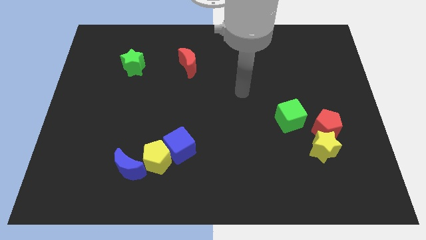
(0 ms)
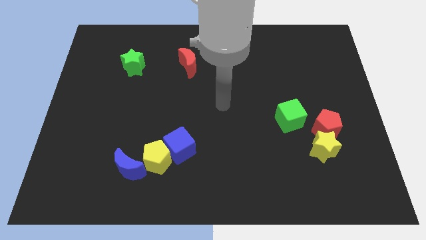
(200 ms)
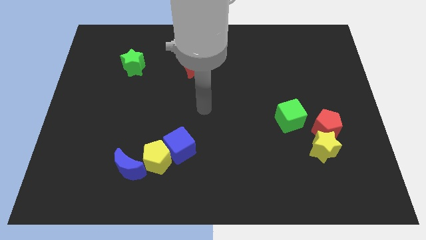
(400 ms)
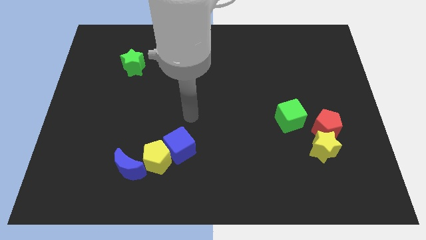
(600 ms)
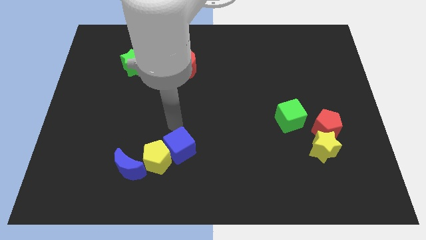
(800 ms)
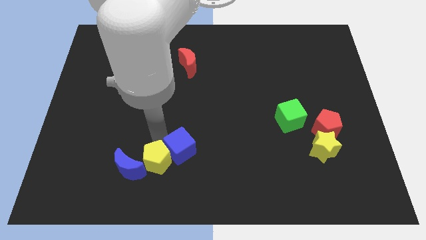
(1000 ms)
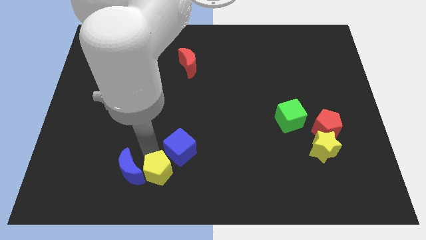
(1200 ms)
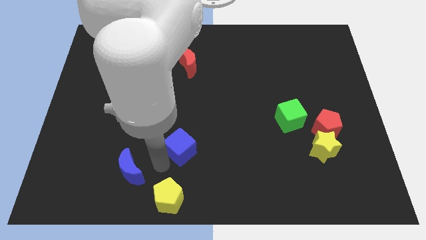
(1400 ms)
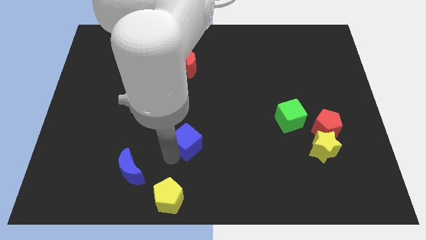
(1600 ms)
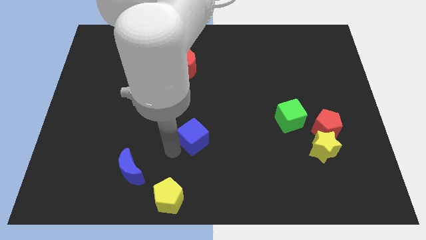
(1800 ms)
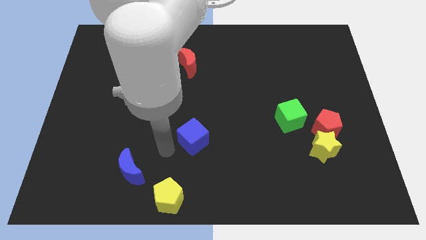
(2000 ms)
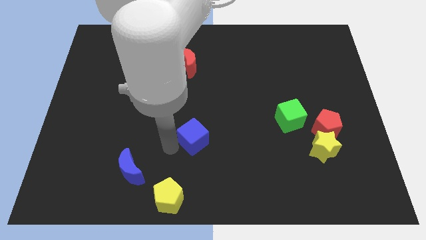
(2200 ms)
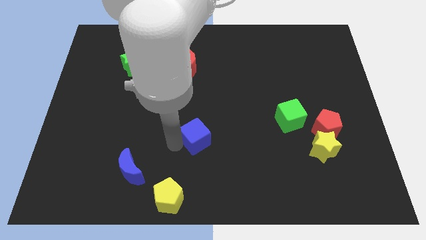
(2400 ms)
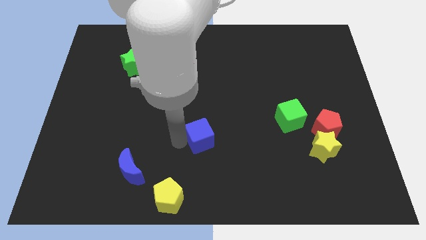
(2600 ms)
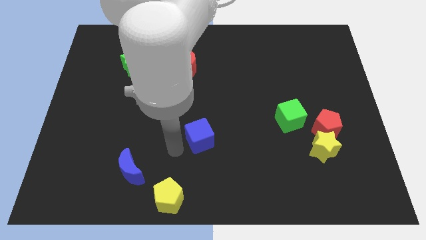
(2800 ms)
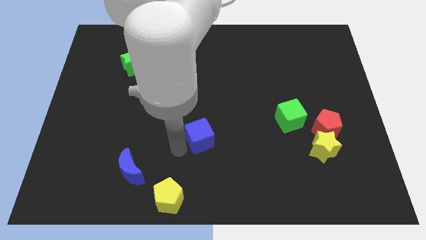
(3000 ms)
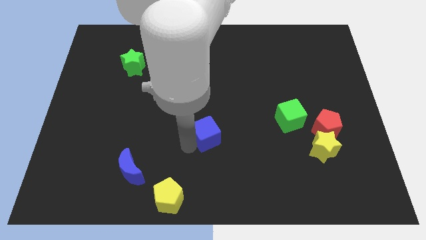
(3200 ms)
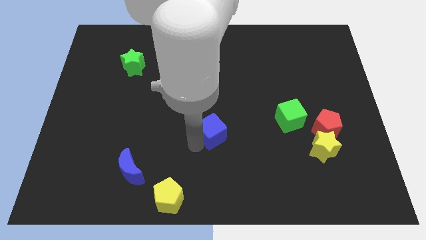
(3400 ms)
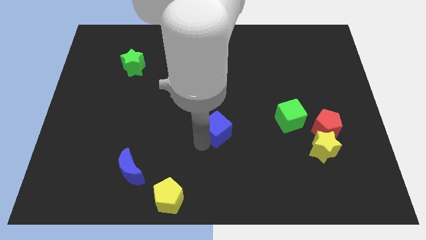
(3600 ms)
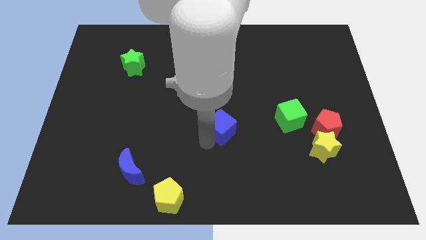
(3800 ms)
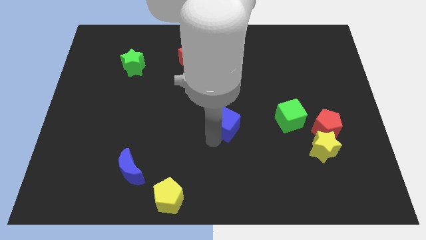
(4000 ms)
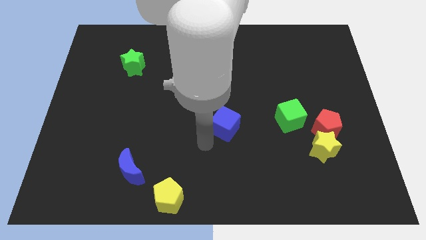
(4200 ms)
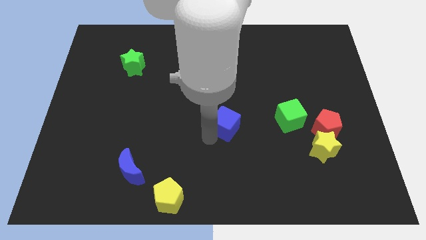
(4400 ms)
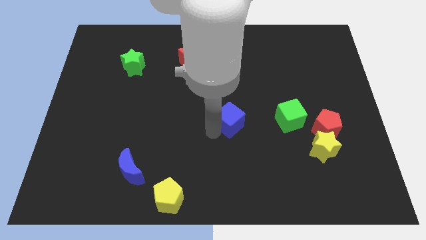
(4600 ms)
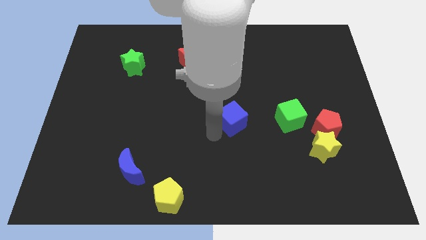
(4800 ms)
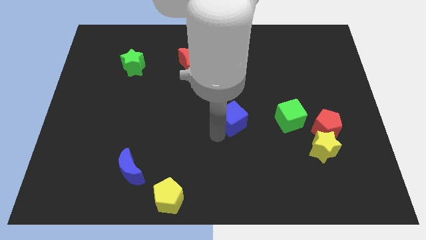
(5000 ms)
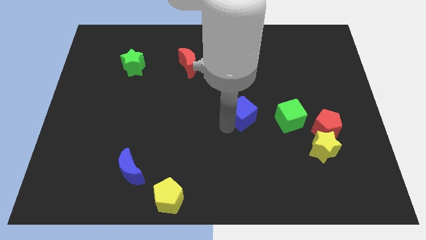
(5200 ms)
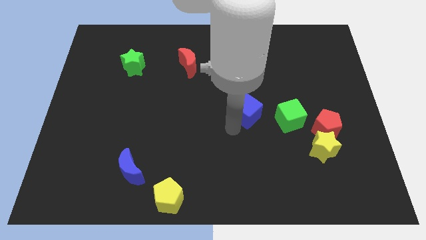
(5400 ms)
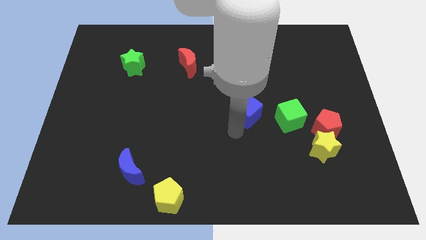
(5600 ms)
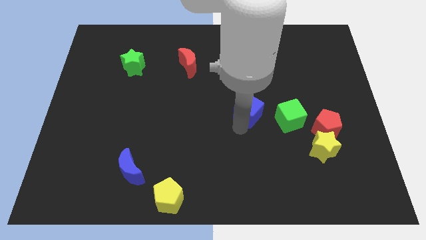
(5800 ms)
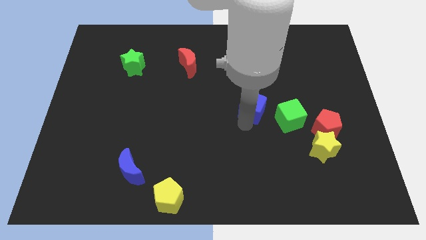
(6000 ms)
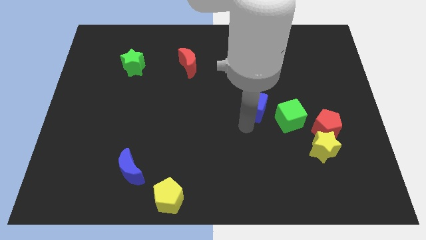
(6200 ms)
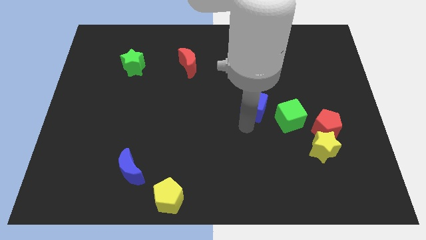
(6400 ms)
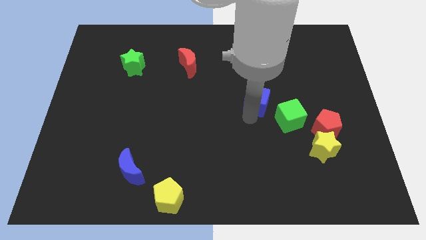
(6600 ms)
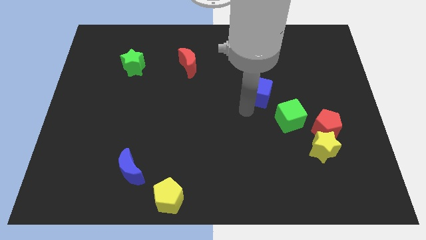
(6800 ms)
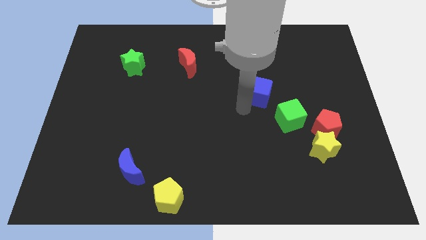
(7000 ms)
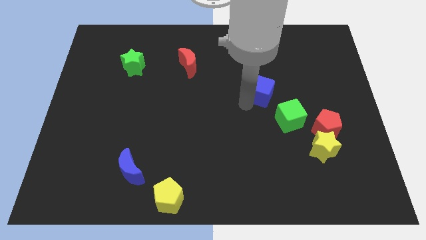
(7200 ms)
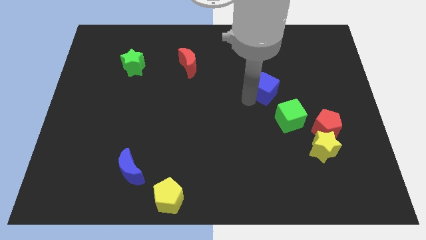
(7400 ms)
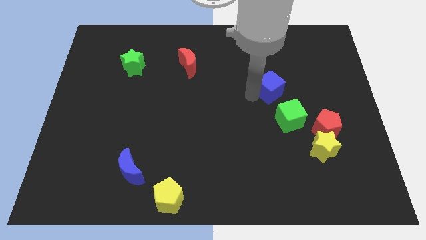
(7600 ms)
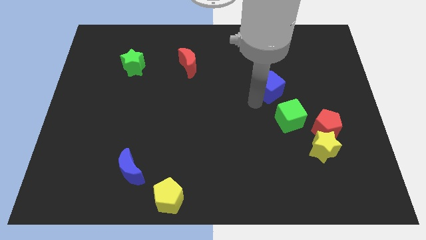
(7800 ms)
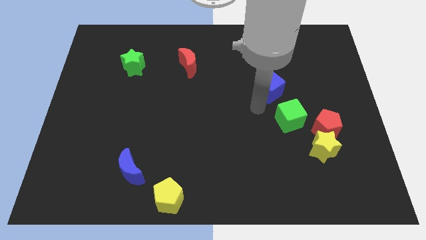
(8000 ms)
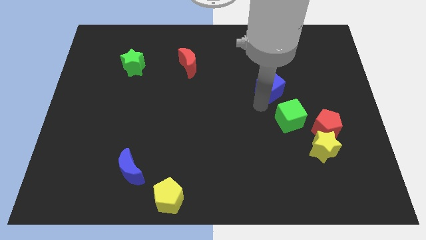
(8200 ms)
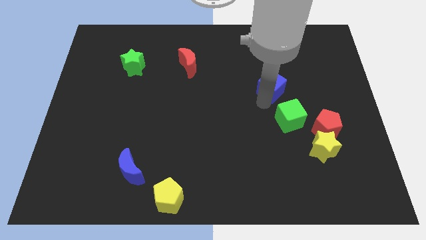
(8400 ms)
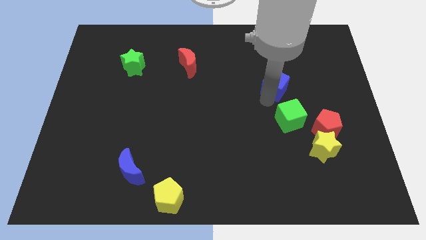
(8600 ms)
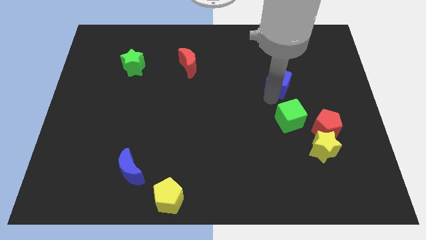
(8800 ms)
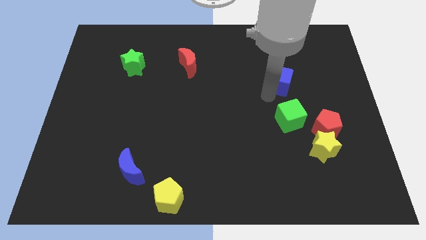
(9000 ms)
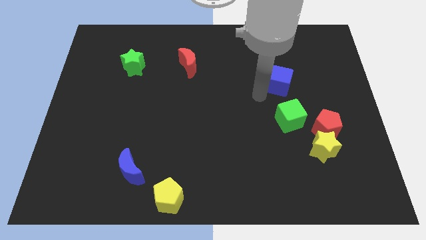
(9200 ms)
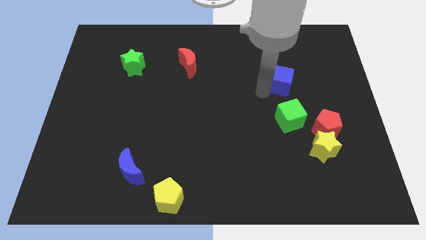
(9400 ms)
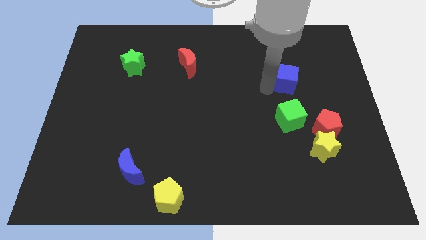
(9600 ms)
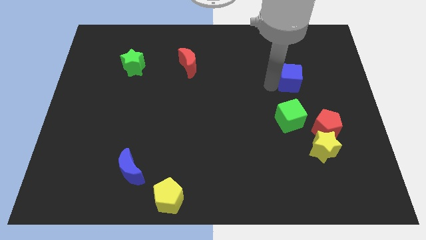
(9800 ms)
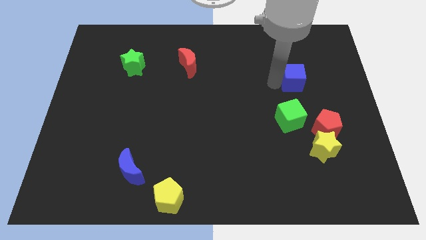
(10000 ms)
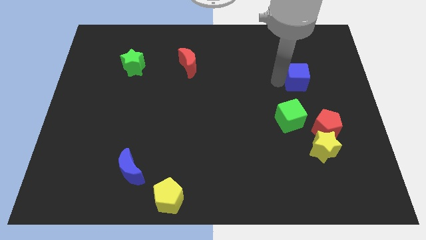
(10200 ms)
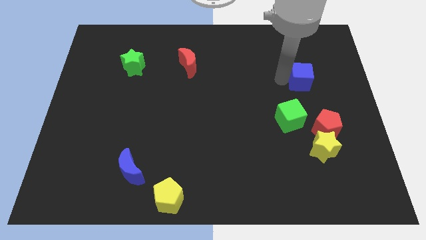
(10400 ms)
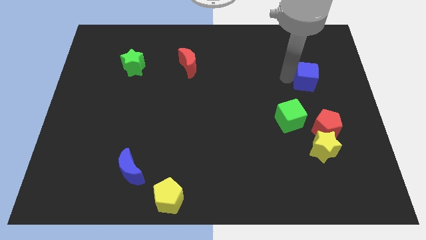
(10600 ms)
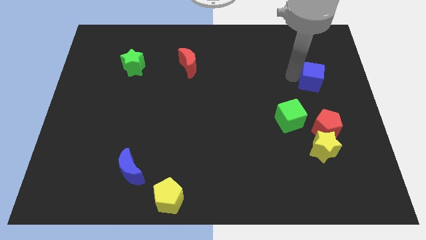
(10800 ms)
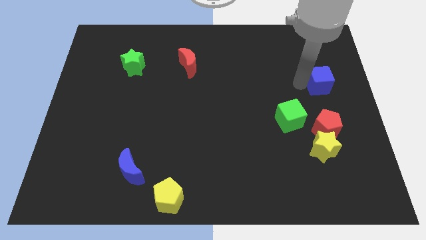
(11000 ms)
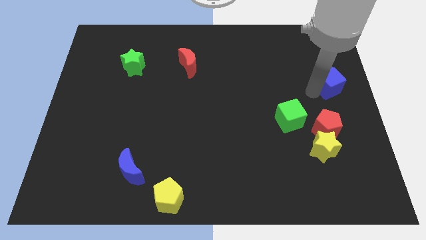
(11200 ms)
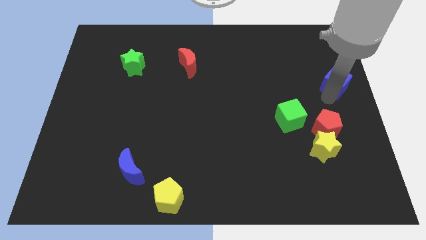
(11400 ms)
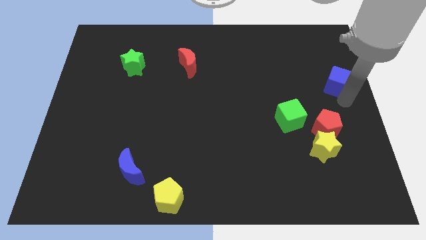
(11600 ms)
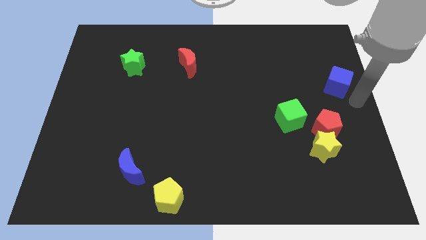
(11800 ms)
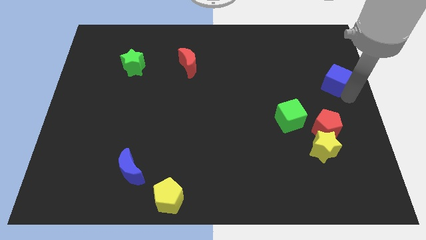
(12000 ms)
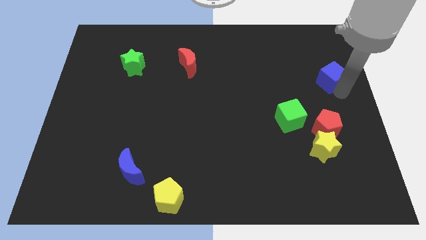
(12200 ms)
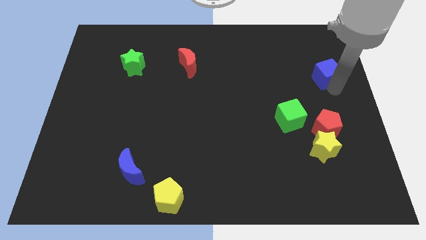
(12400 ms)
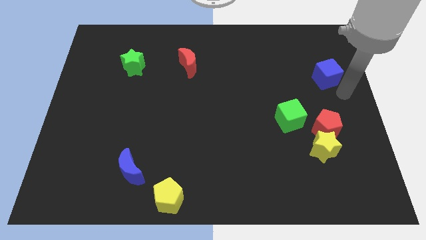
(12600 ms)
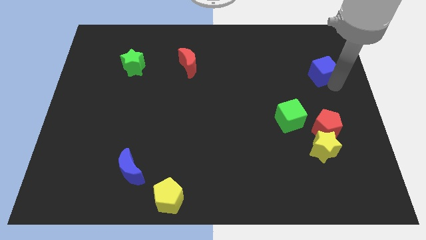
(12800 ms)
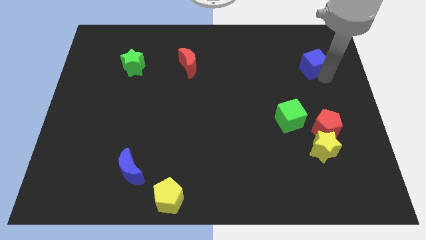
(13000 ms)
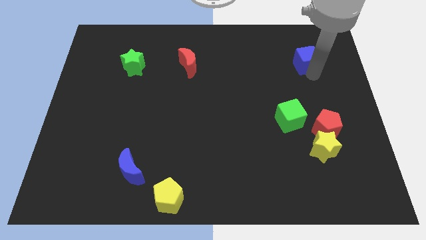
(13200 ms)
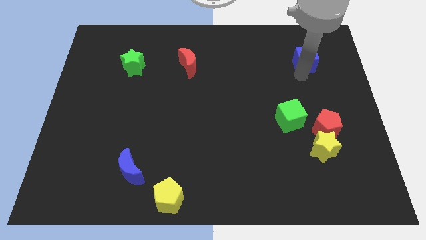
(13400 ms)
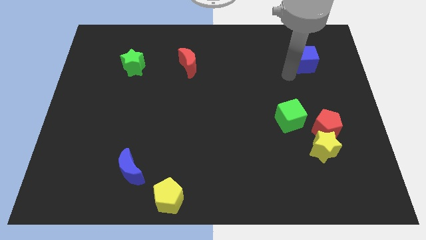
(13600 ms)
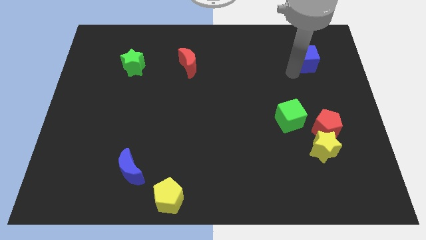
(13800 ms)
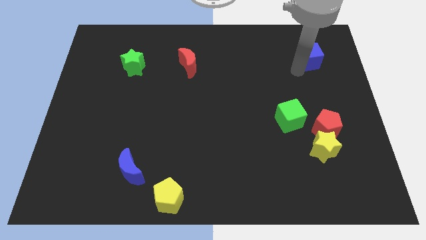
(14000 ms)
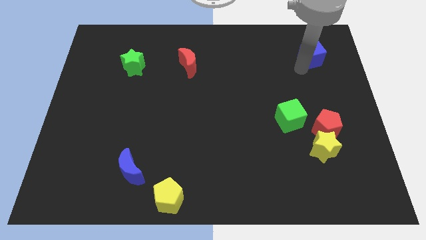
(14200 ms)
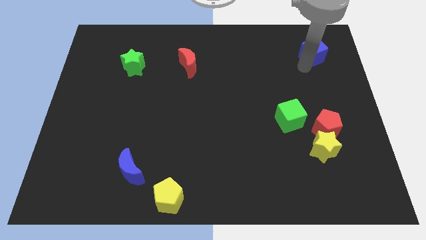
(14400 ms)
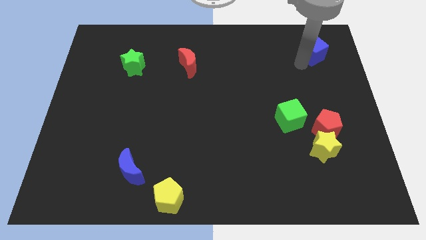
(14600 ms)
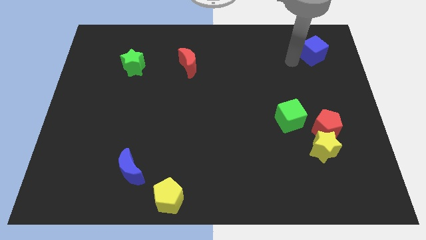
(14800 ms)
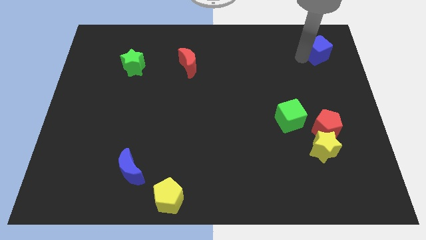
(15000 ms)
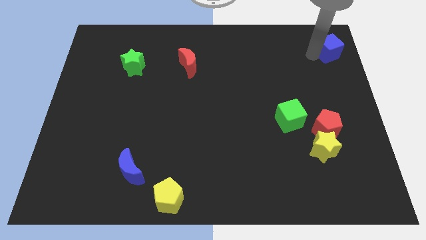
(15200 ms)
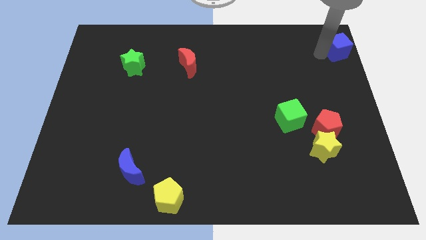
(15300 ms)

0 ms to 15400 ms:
slide the blue cube to the top right corner
